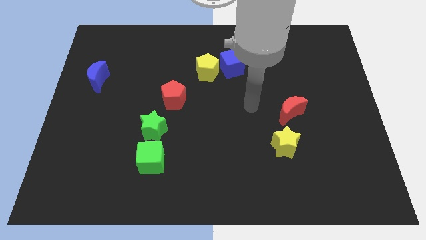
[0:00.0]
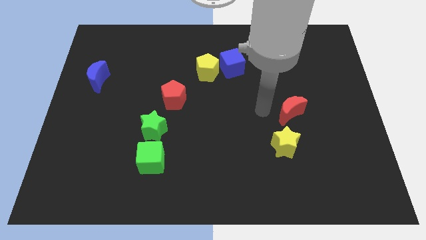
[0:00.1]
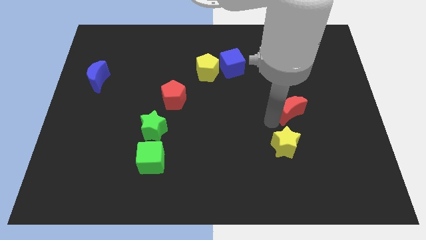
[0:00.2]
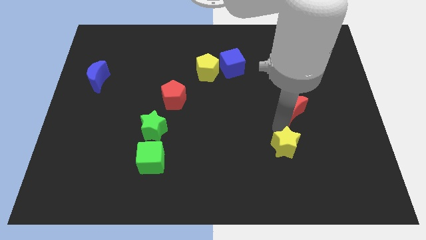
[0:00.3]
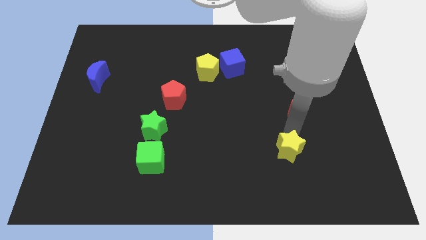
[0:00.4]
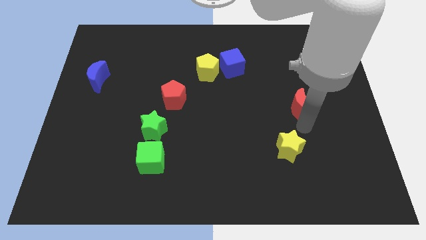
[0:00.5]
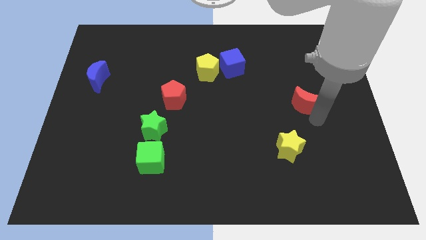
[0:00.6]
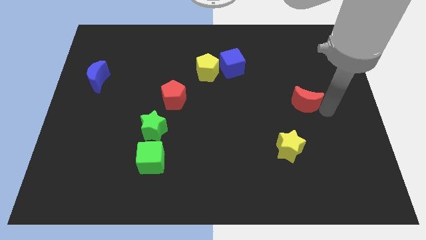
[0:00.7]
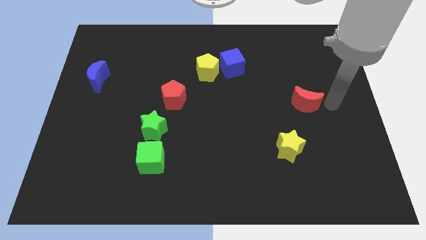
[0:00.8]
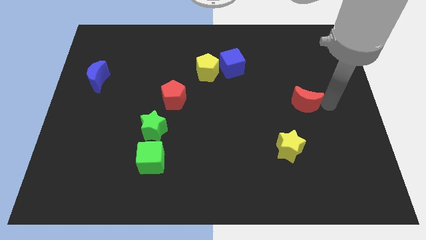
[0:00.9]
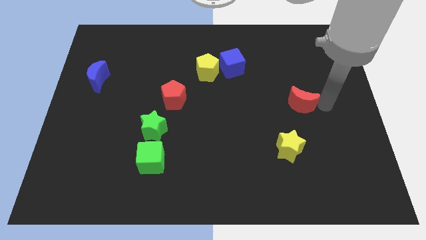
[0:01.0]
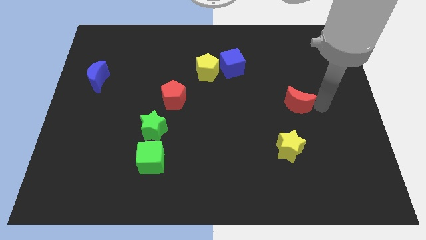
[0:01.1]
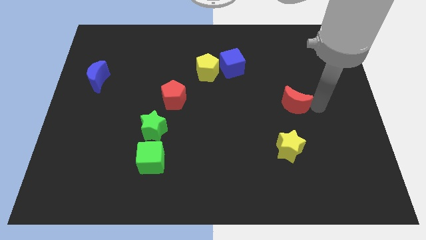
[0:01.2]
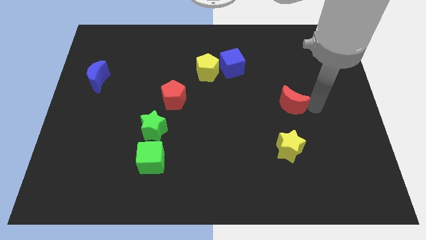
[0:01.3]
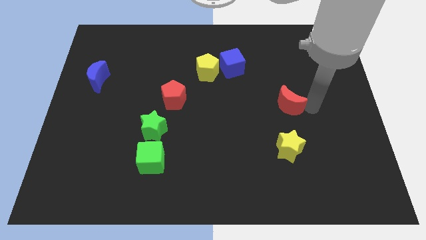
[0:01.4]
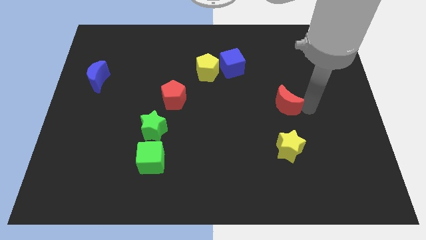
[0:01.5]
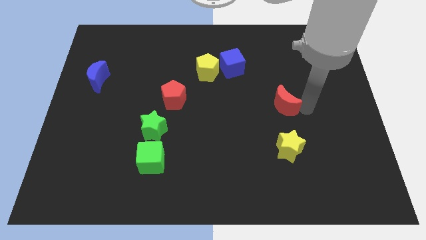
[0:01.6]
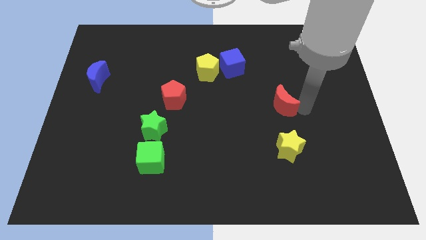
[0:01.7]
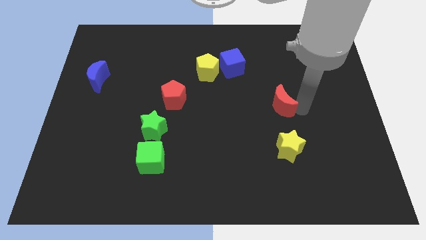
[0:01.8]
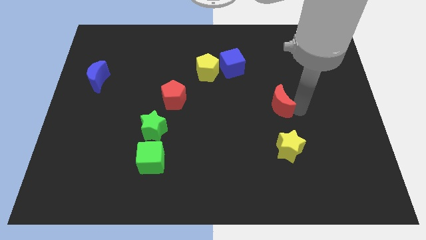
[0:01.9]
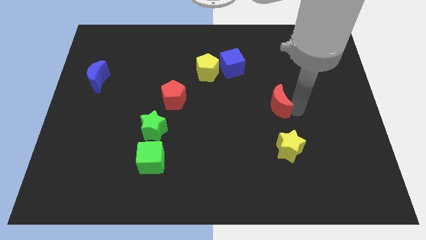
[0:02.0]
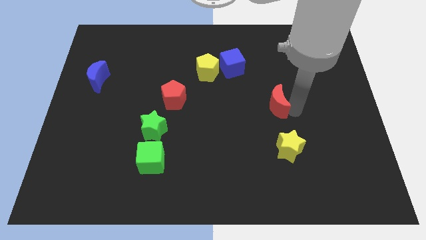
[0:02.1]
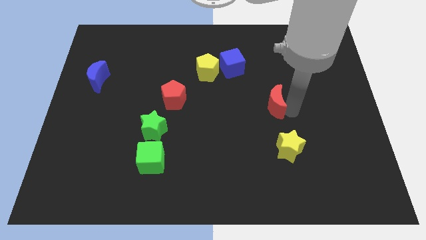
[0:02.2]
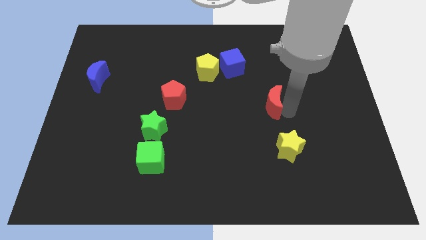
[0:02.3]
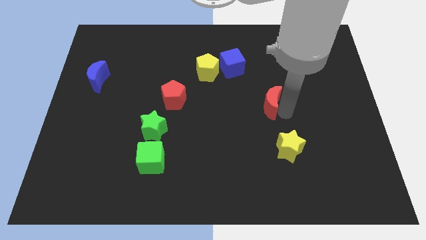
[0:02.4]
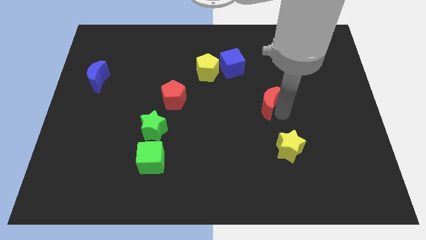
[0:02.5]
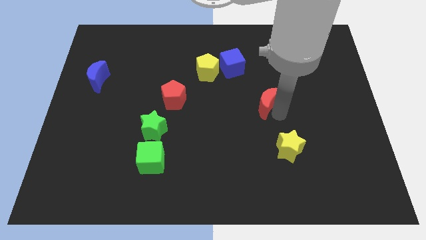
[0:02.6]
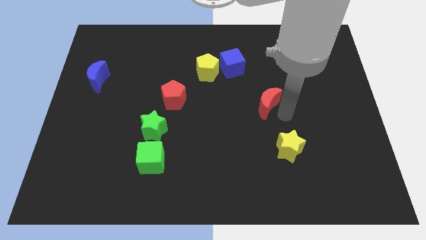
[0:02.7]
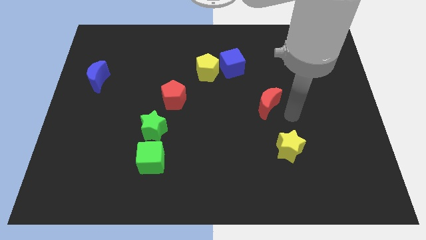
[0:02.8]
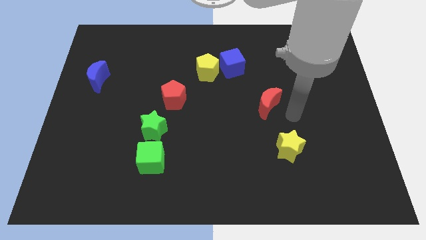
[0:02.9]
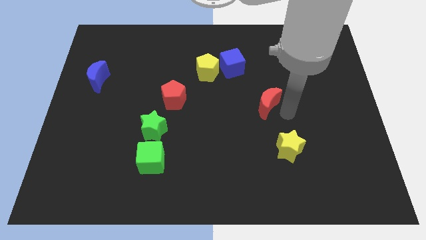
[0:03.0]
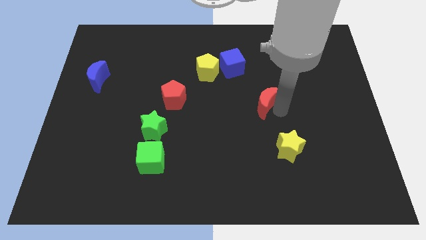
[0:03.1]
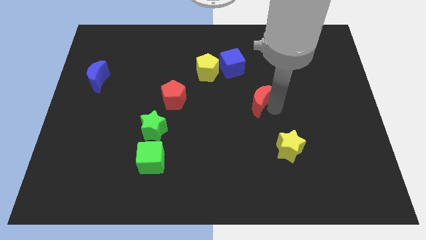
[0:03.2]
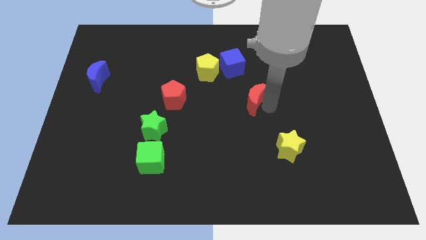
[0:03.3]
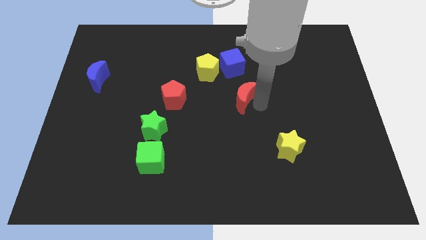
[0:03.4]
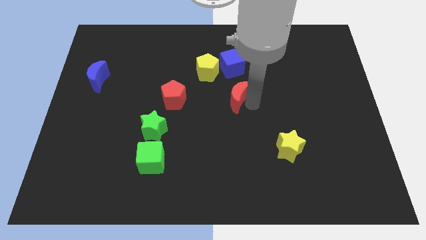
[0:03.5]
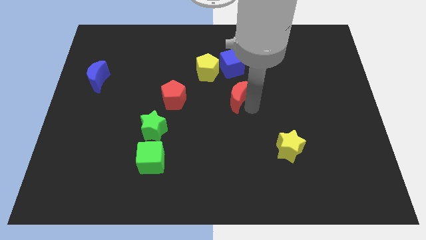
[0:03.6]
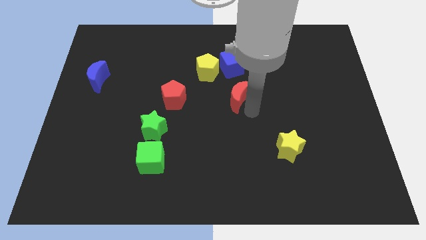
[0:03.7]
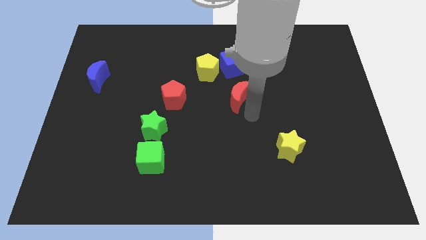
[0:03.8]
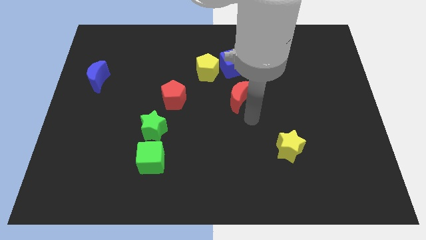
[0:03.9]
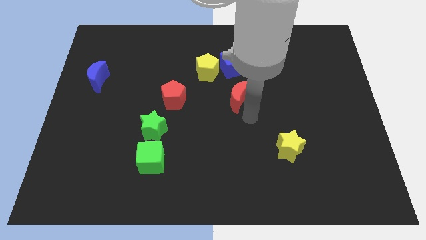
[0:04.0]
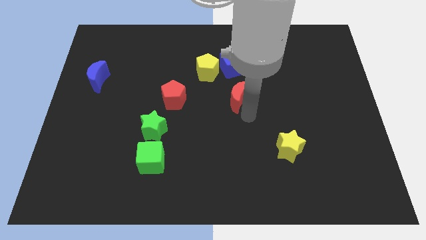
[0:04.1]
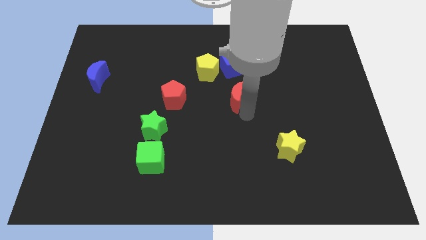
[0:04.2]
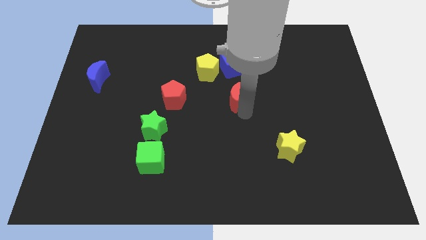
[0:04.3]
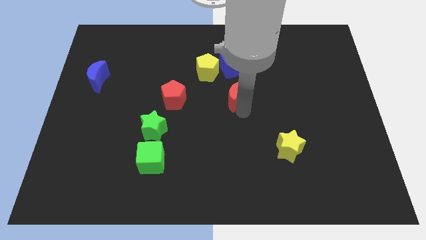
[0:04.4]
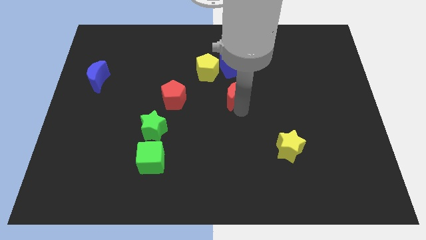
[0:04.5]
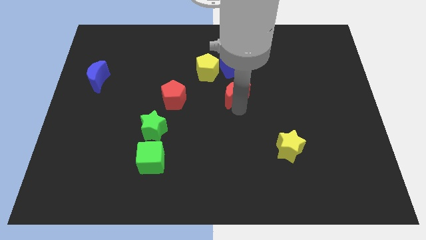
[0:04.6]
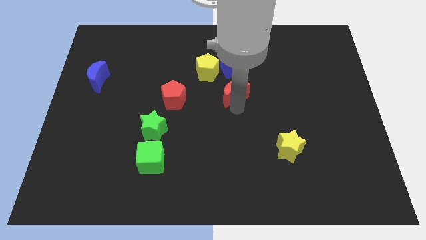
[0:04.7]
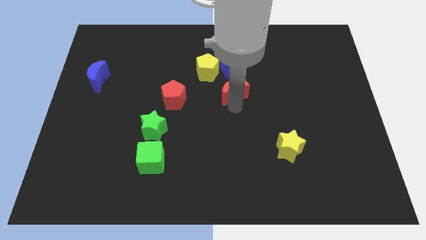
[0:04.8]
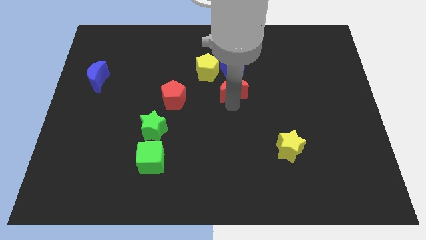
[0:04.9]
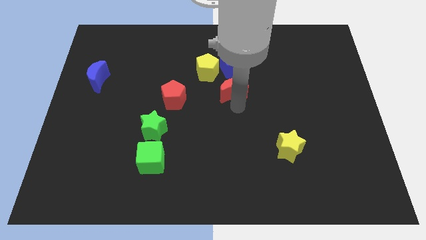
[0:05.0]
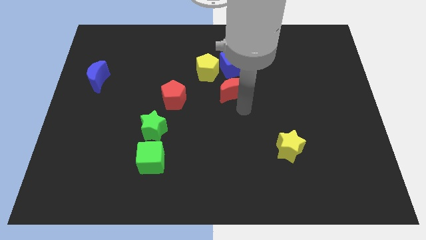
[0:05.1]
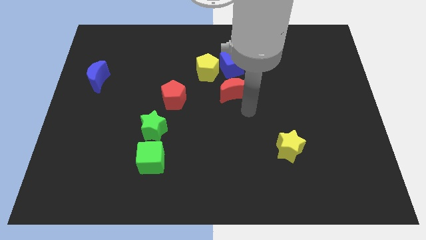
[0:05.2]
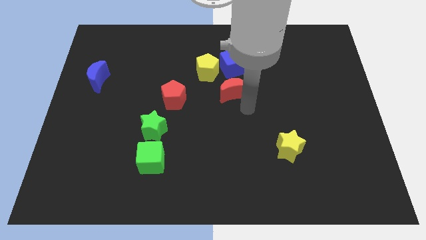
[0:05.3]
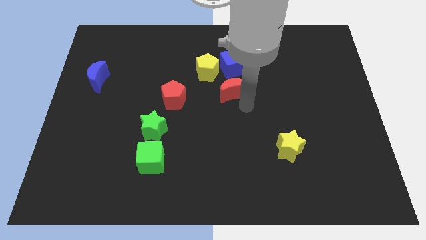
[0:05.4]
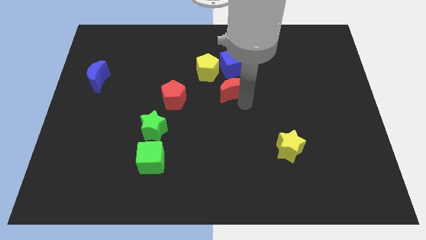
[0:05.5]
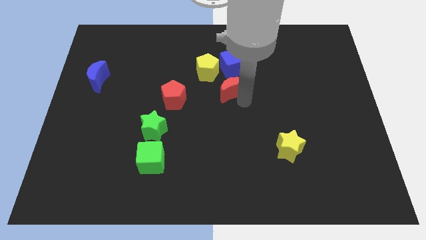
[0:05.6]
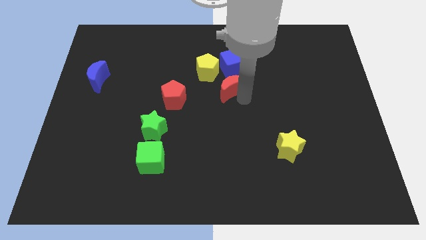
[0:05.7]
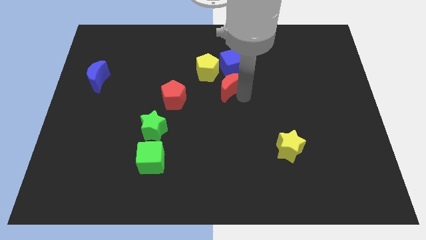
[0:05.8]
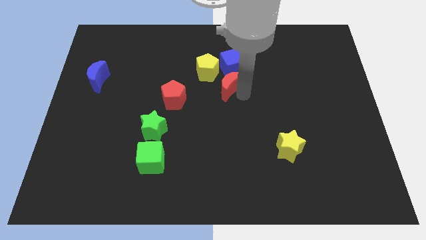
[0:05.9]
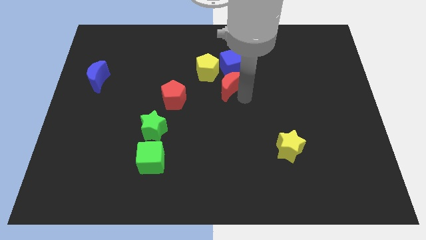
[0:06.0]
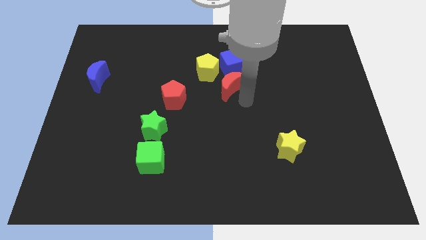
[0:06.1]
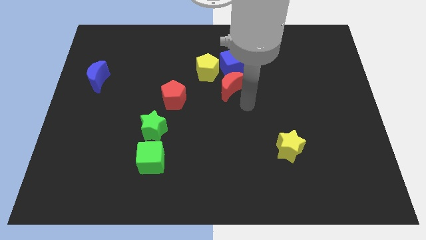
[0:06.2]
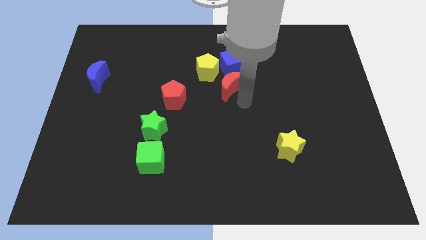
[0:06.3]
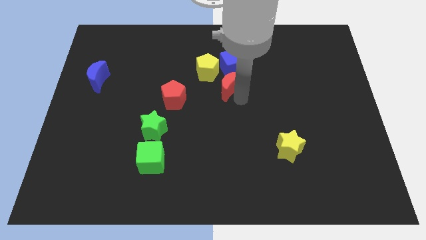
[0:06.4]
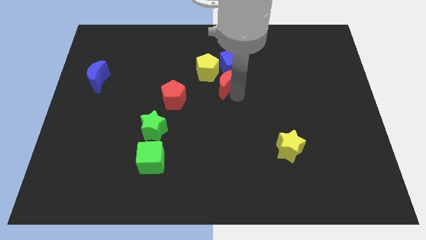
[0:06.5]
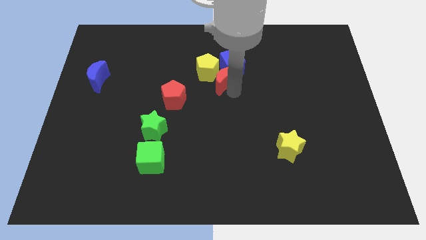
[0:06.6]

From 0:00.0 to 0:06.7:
push the red moon close to the yellow pentagon

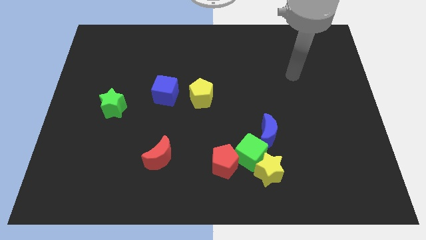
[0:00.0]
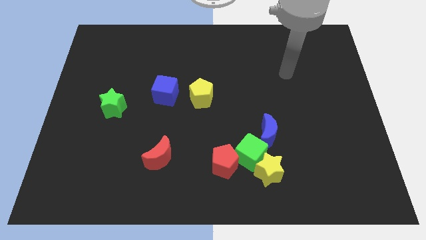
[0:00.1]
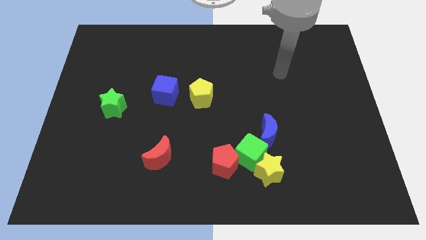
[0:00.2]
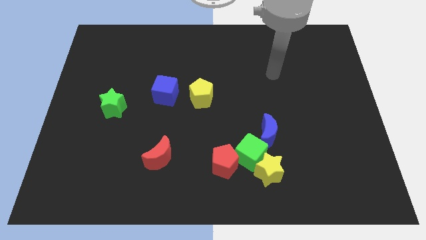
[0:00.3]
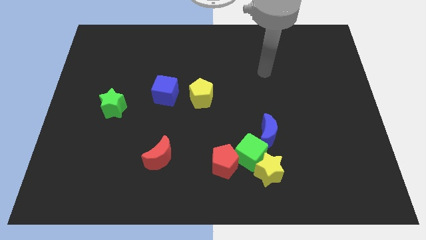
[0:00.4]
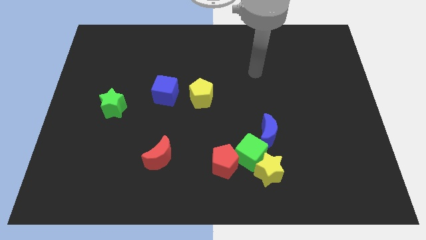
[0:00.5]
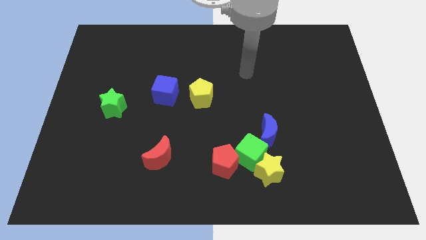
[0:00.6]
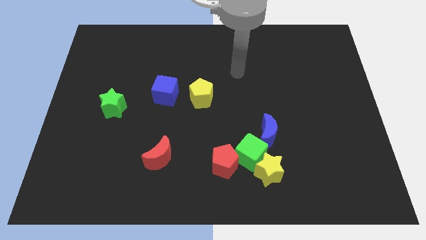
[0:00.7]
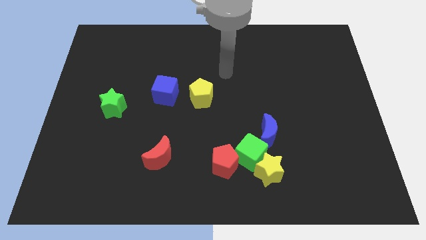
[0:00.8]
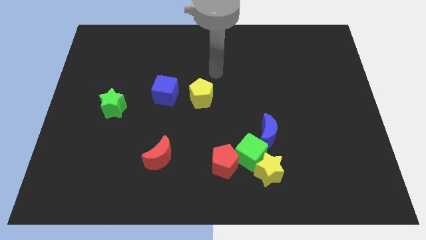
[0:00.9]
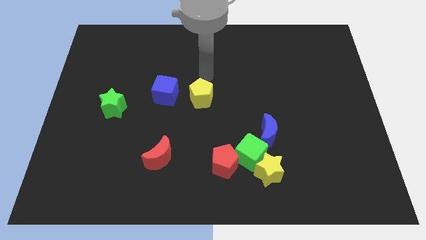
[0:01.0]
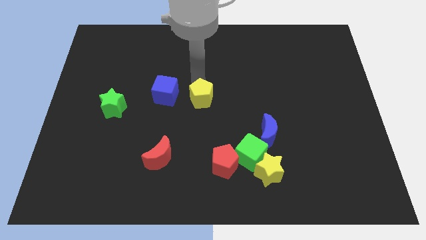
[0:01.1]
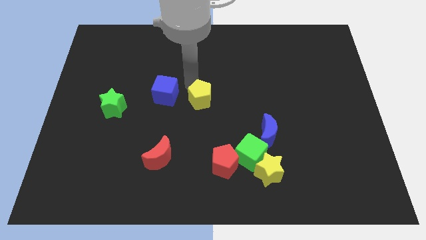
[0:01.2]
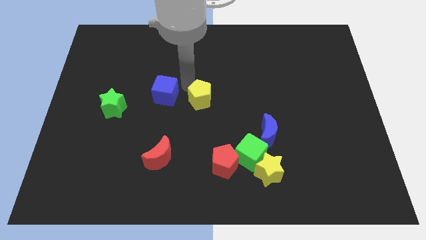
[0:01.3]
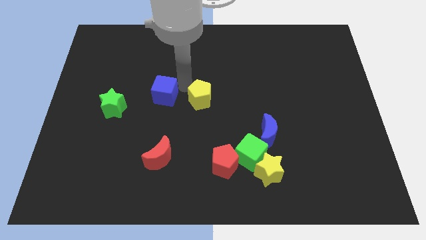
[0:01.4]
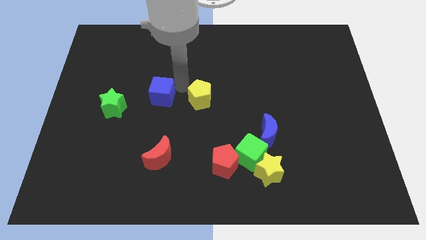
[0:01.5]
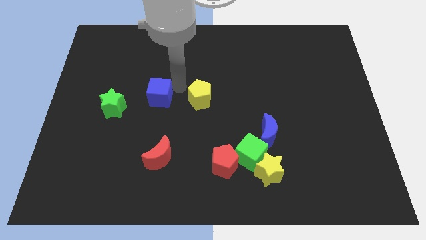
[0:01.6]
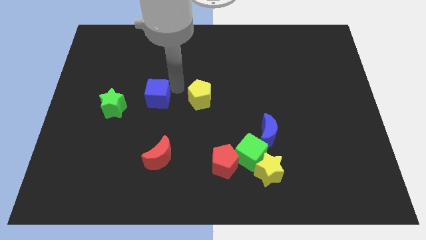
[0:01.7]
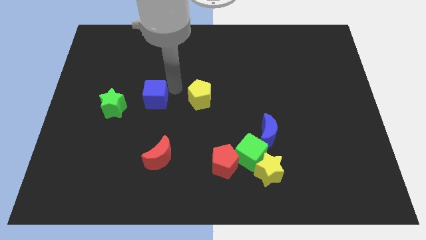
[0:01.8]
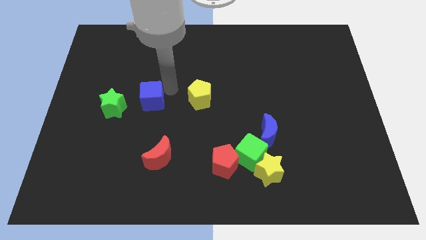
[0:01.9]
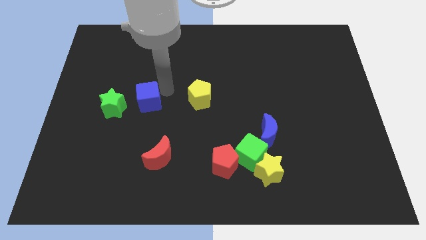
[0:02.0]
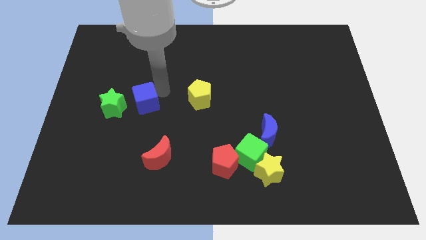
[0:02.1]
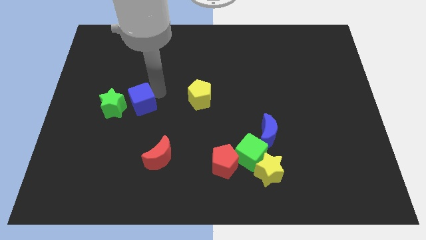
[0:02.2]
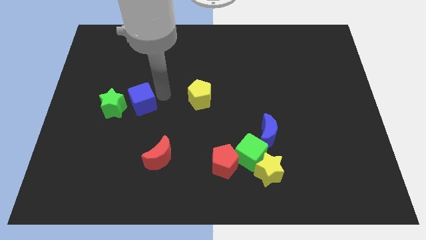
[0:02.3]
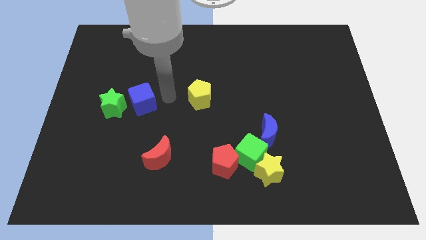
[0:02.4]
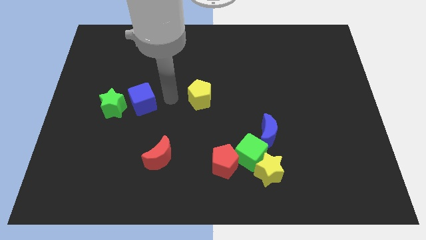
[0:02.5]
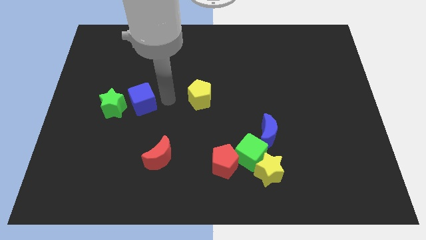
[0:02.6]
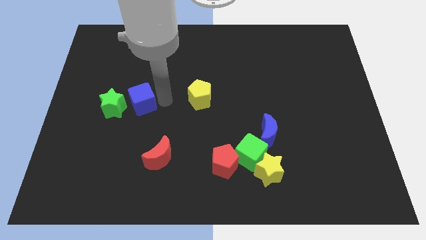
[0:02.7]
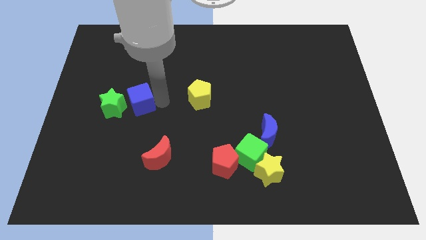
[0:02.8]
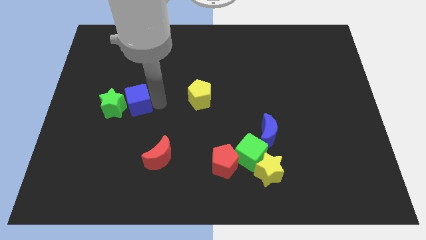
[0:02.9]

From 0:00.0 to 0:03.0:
move the blue cube next to the green star
